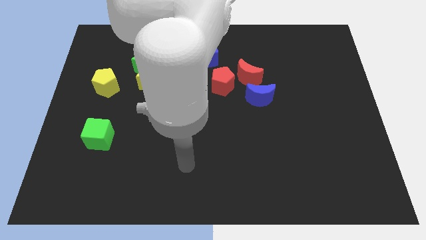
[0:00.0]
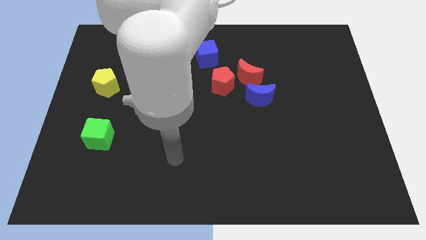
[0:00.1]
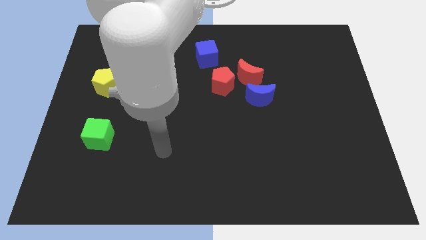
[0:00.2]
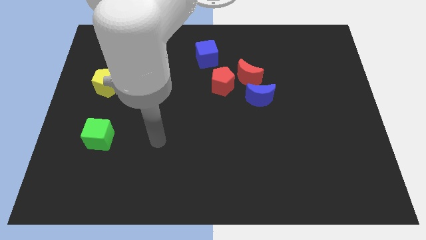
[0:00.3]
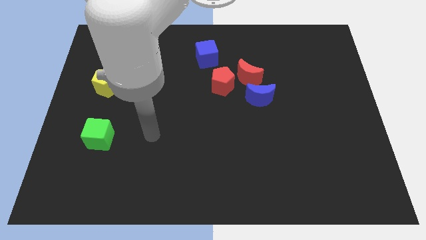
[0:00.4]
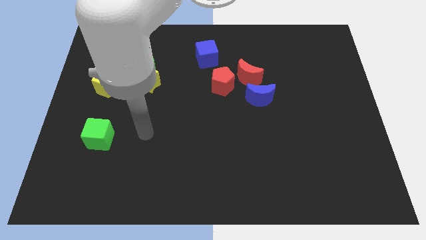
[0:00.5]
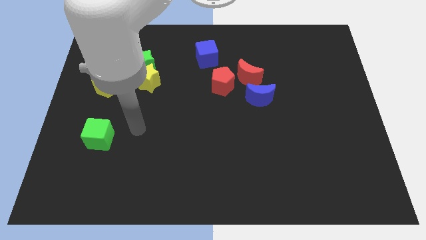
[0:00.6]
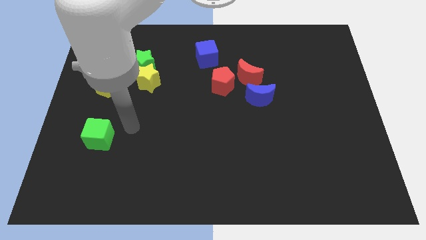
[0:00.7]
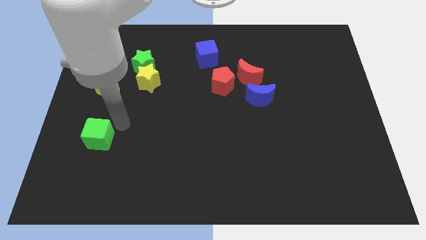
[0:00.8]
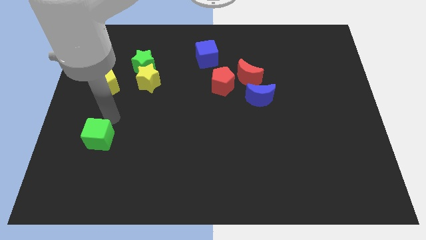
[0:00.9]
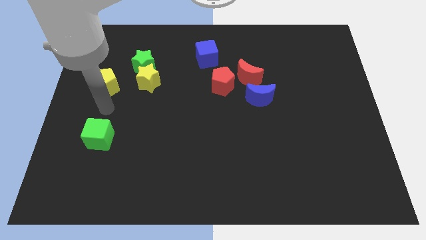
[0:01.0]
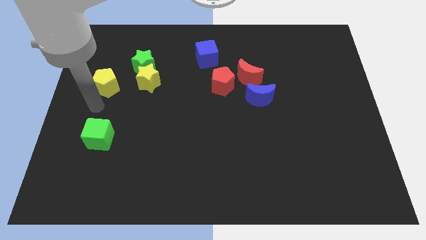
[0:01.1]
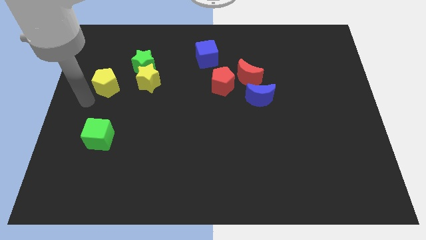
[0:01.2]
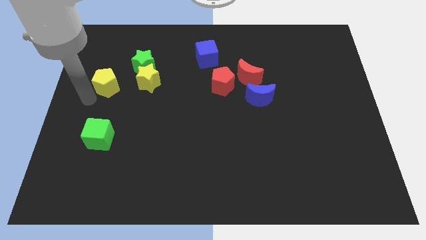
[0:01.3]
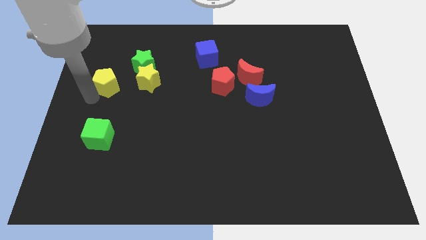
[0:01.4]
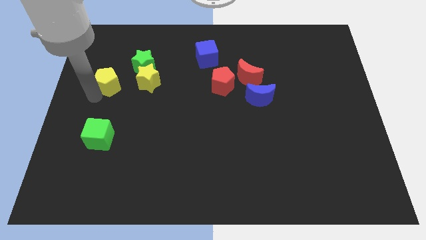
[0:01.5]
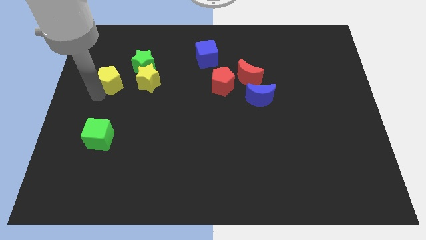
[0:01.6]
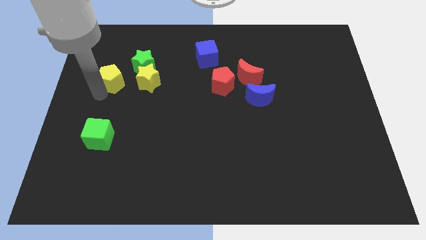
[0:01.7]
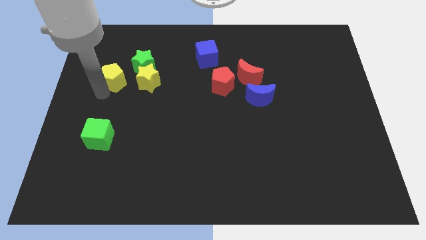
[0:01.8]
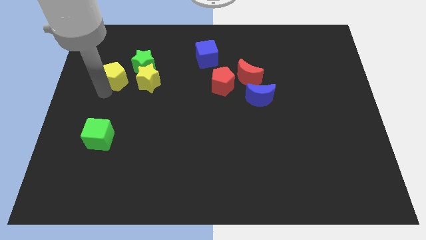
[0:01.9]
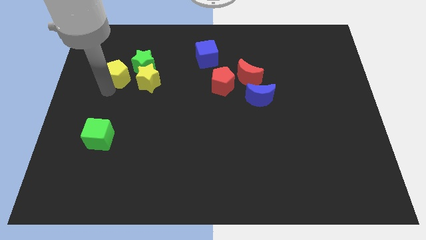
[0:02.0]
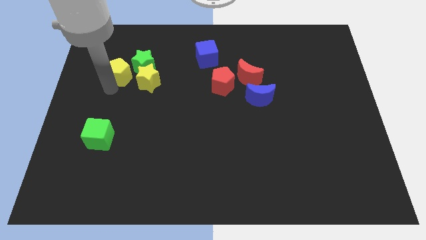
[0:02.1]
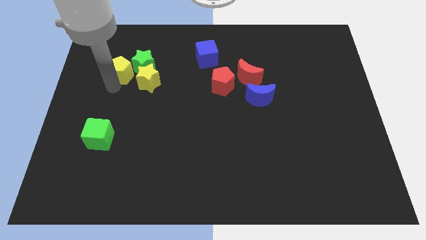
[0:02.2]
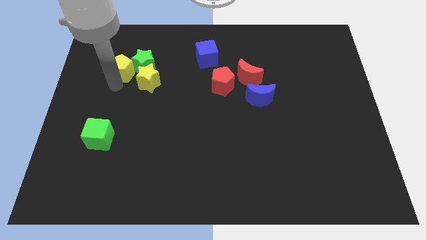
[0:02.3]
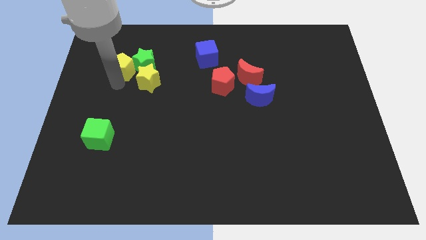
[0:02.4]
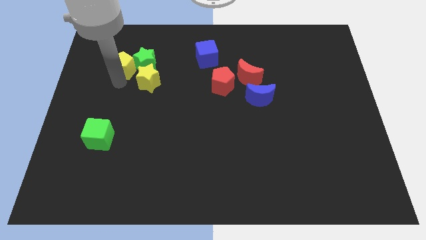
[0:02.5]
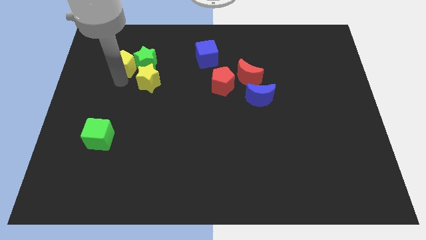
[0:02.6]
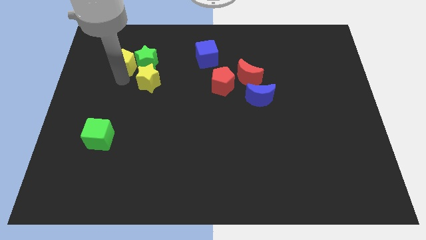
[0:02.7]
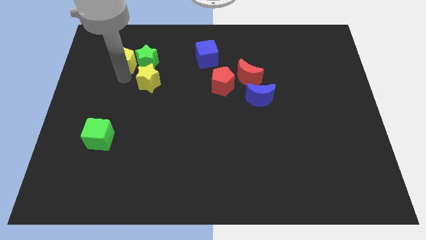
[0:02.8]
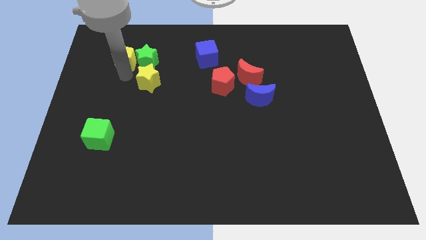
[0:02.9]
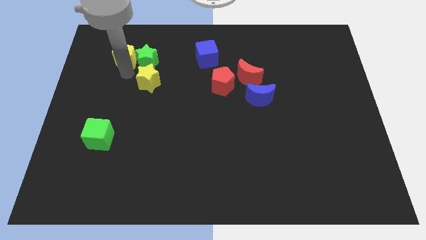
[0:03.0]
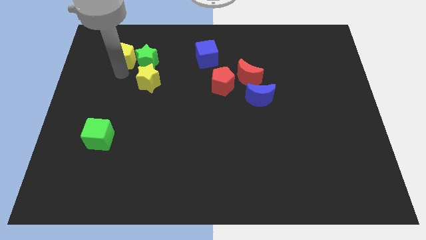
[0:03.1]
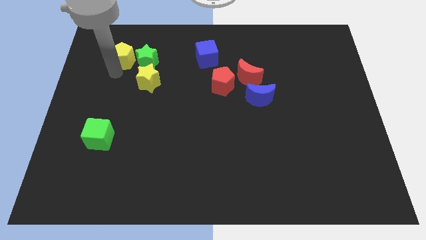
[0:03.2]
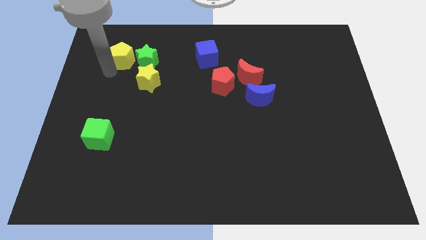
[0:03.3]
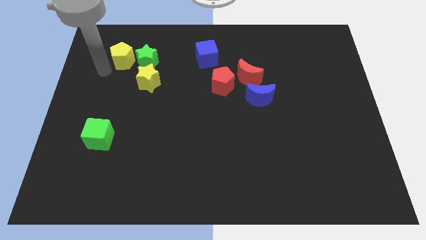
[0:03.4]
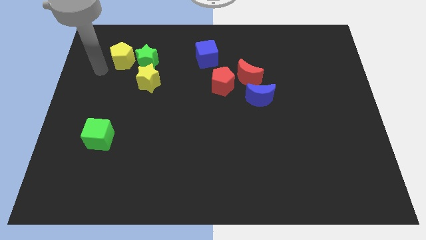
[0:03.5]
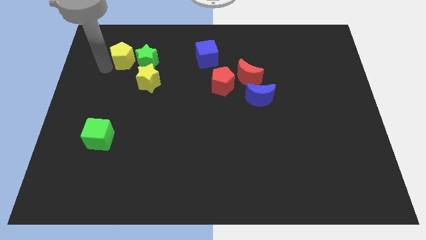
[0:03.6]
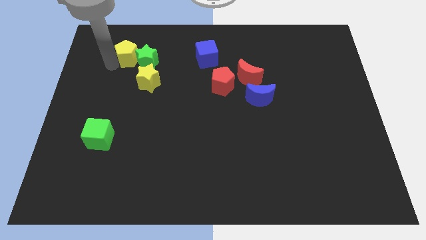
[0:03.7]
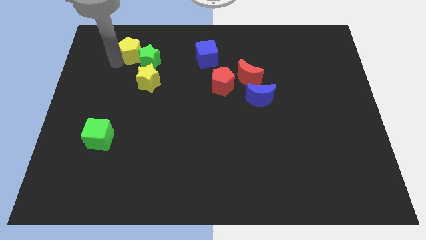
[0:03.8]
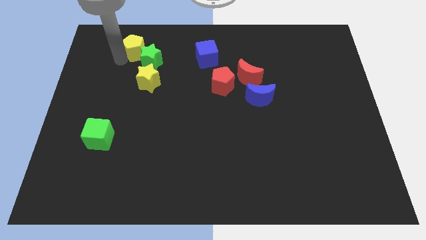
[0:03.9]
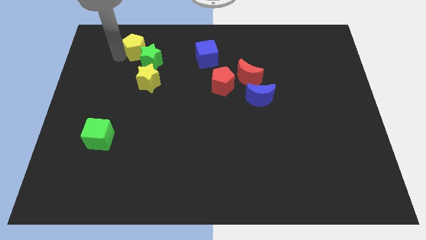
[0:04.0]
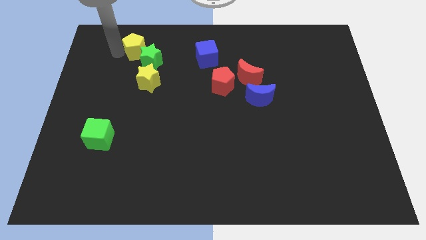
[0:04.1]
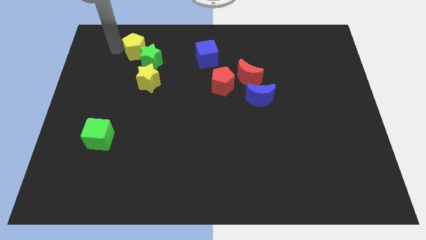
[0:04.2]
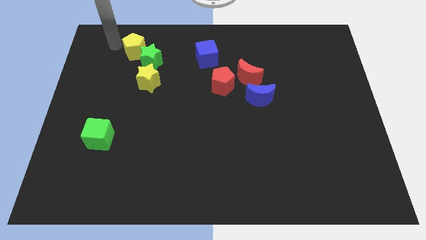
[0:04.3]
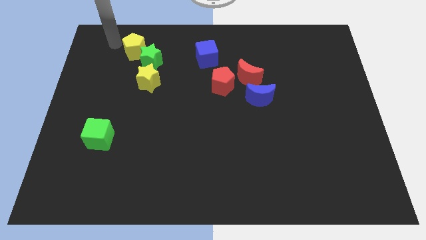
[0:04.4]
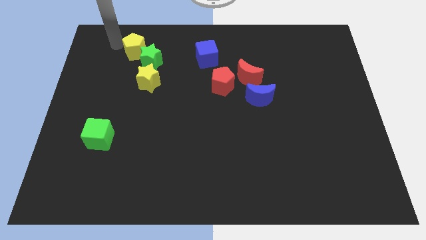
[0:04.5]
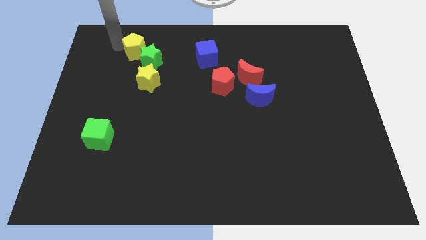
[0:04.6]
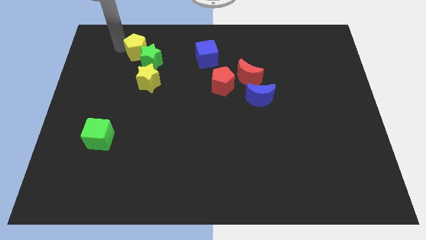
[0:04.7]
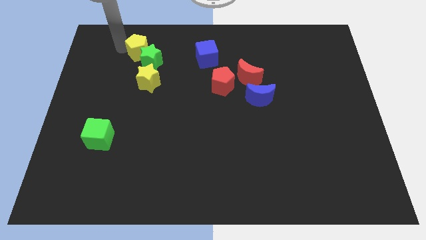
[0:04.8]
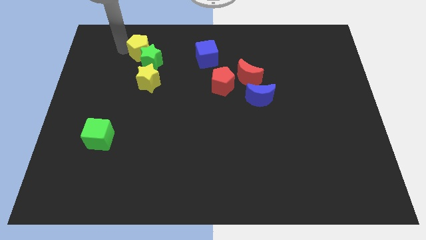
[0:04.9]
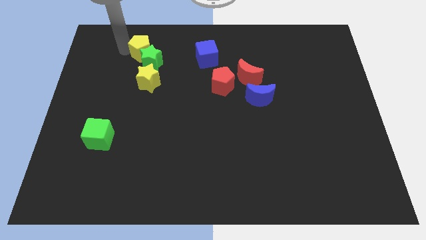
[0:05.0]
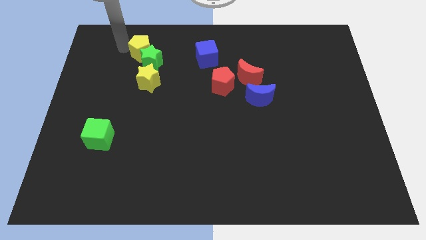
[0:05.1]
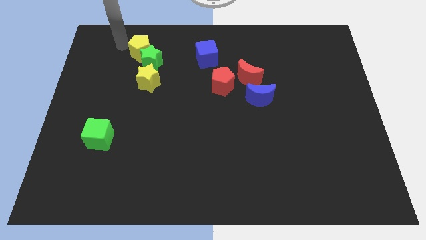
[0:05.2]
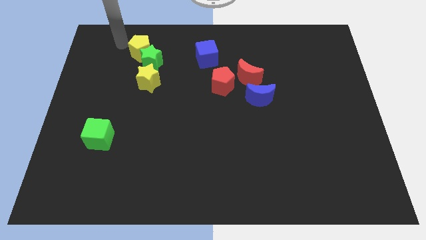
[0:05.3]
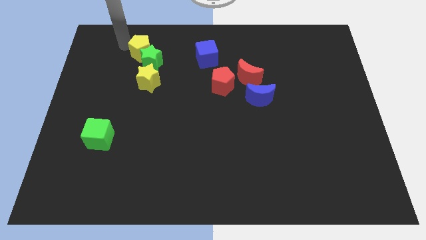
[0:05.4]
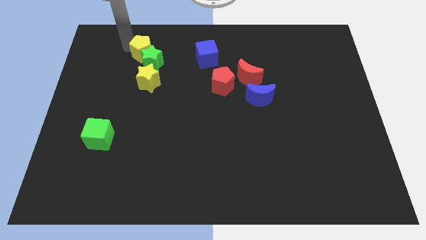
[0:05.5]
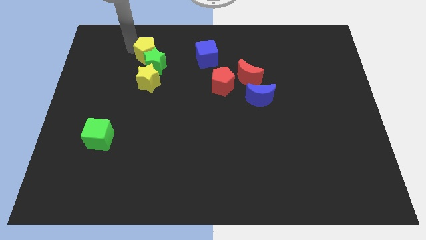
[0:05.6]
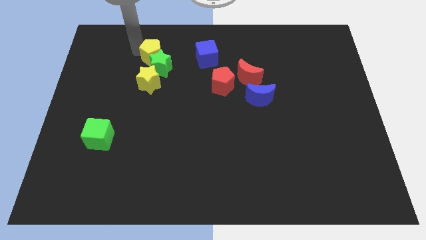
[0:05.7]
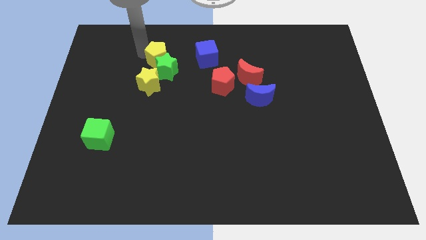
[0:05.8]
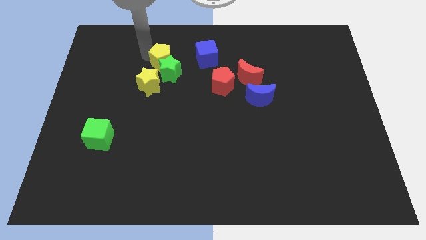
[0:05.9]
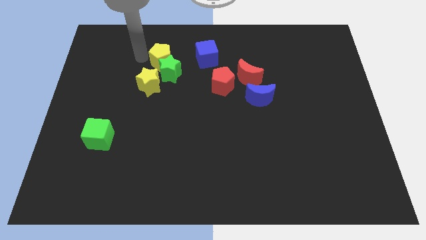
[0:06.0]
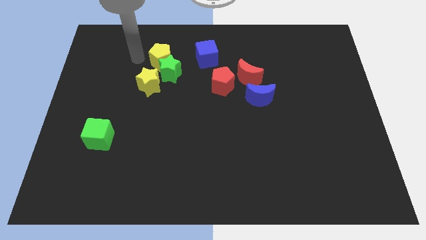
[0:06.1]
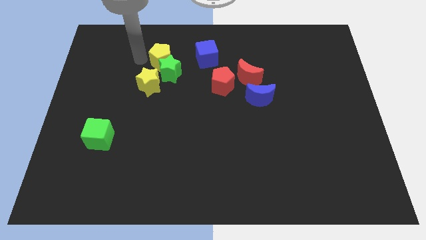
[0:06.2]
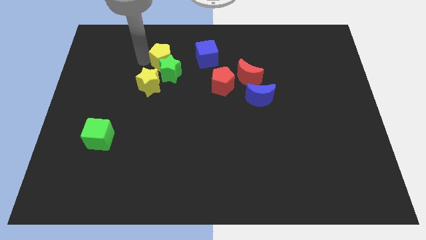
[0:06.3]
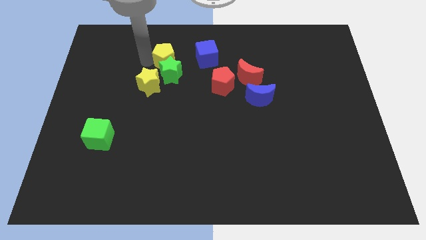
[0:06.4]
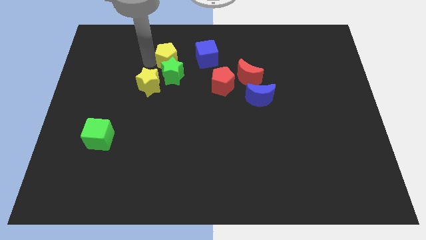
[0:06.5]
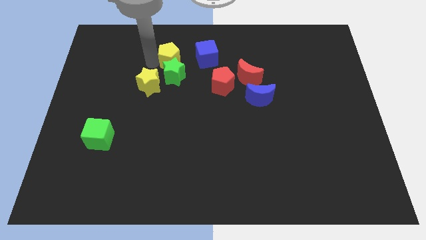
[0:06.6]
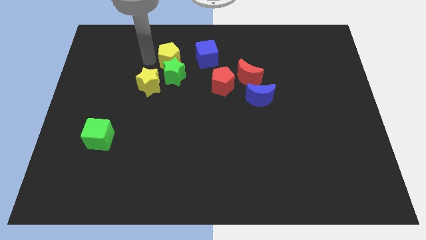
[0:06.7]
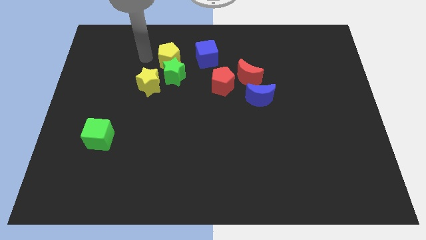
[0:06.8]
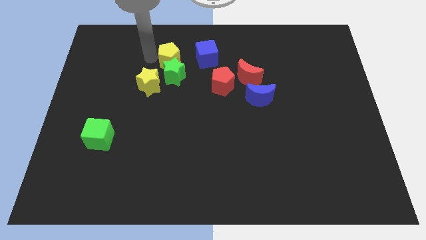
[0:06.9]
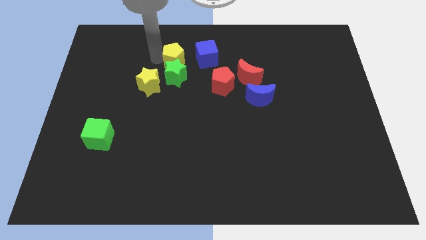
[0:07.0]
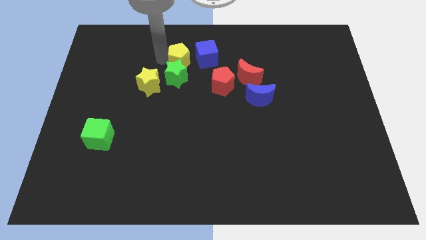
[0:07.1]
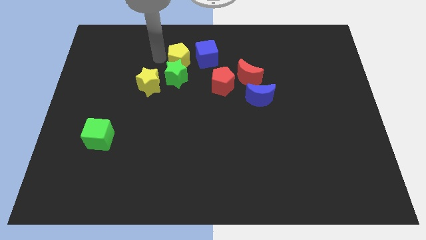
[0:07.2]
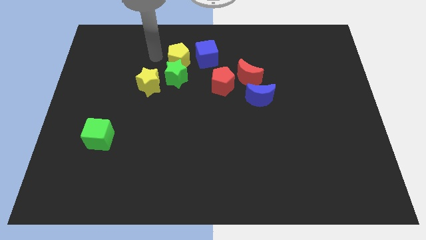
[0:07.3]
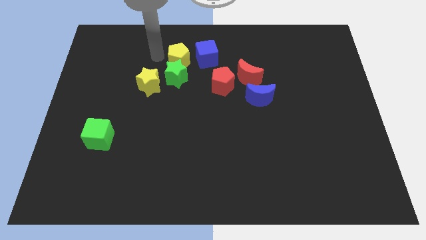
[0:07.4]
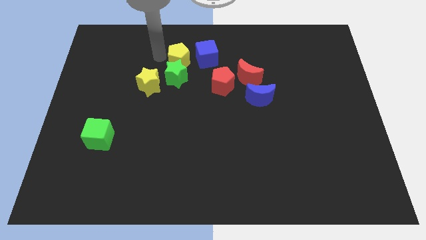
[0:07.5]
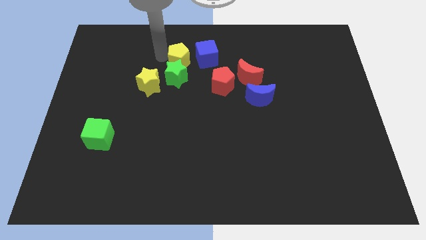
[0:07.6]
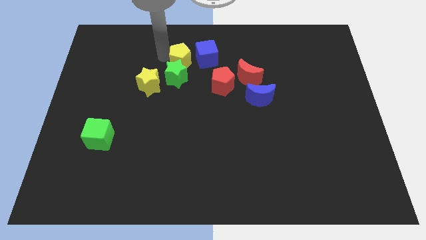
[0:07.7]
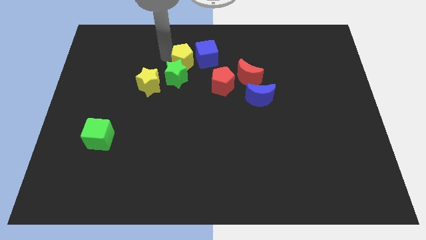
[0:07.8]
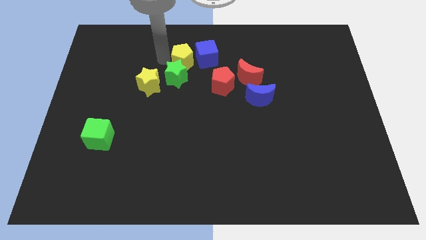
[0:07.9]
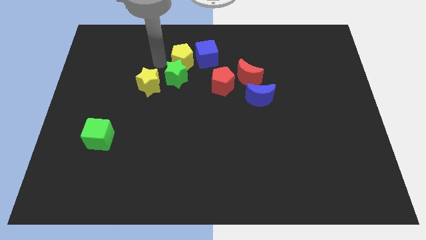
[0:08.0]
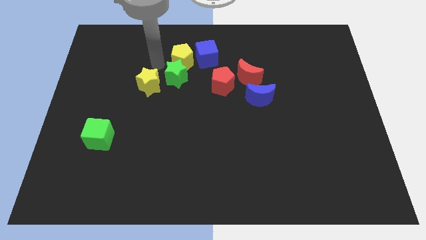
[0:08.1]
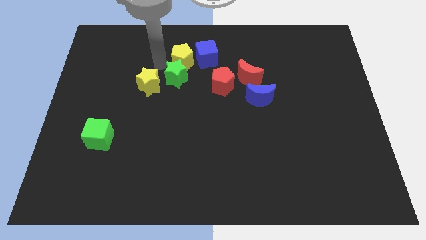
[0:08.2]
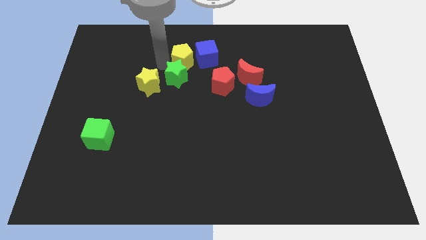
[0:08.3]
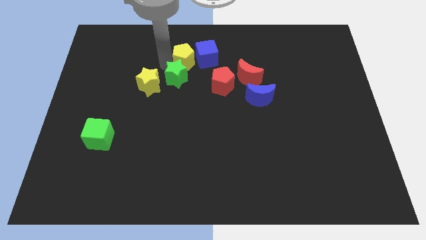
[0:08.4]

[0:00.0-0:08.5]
move the yellow pentagon to the blue cube
